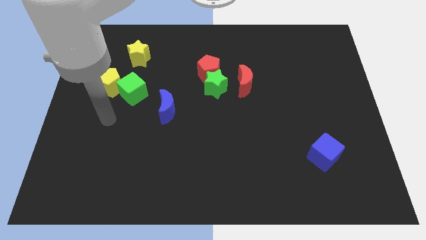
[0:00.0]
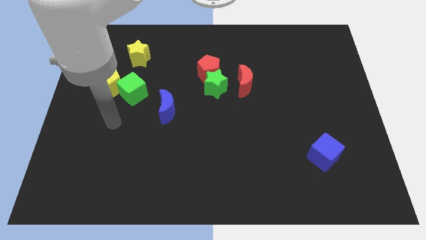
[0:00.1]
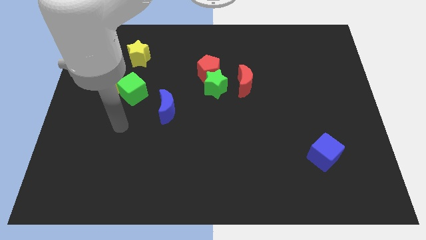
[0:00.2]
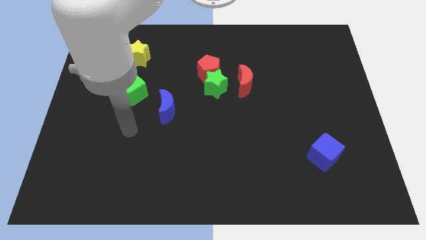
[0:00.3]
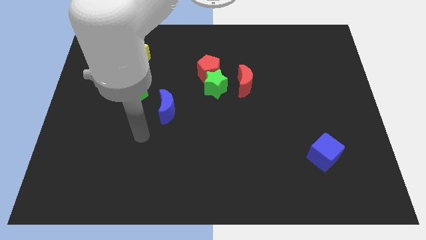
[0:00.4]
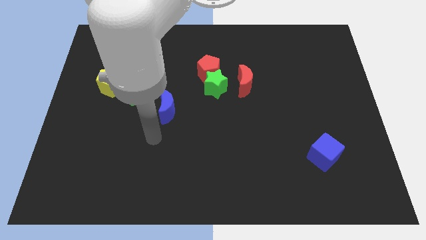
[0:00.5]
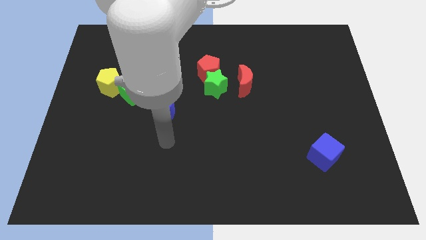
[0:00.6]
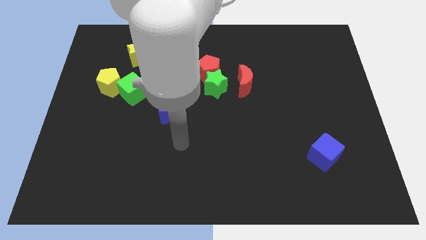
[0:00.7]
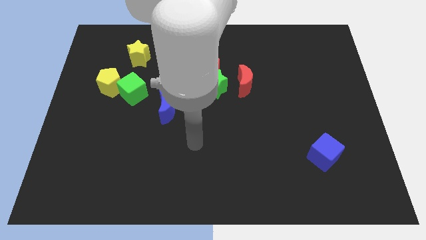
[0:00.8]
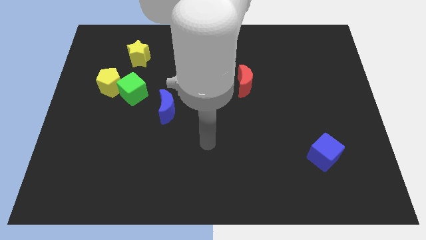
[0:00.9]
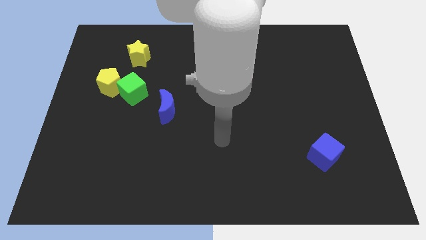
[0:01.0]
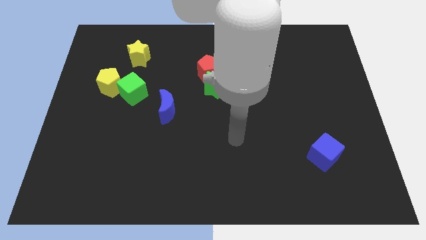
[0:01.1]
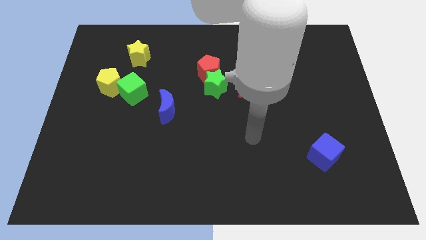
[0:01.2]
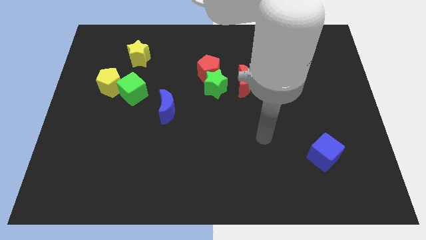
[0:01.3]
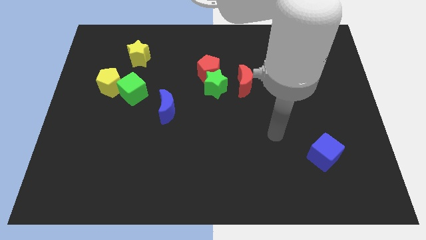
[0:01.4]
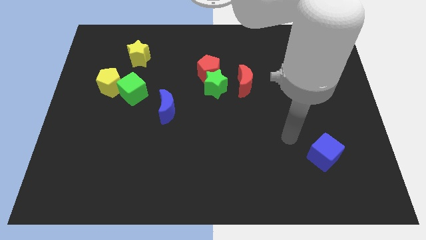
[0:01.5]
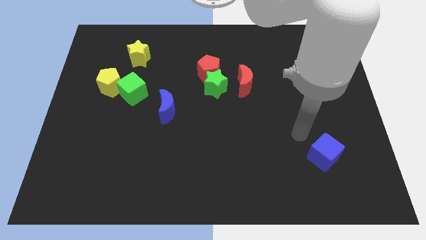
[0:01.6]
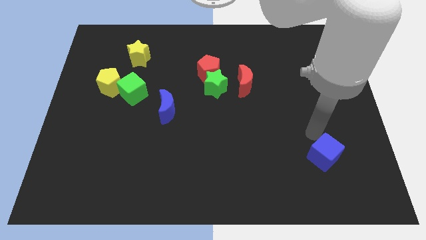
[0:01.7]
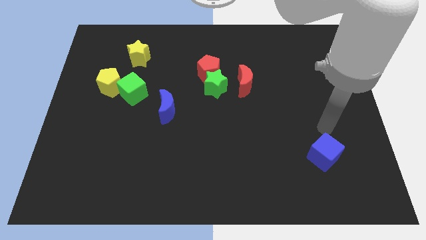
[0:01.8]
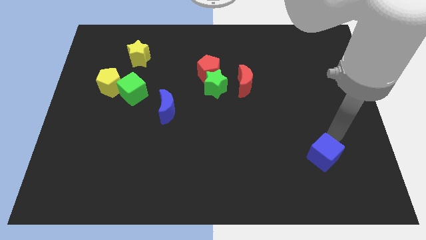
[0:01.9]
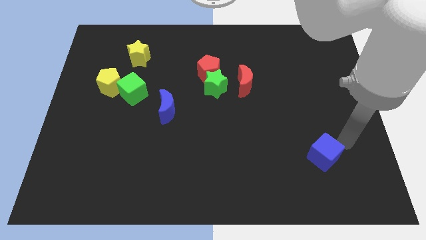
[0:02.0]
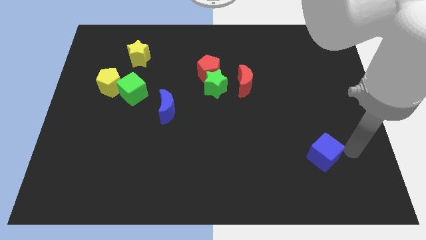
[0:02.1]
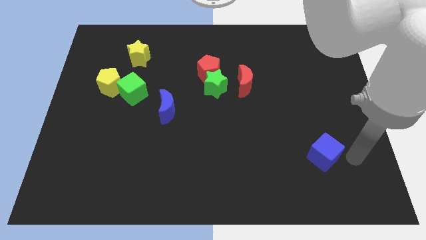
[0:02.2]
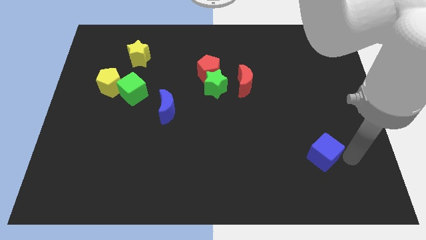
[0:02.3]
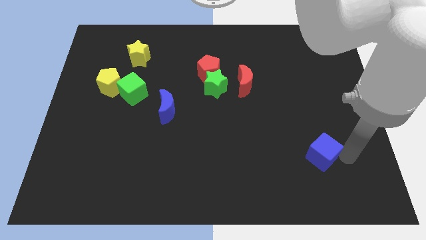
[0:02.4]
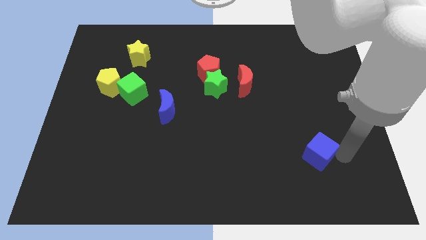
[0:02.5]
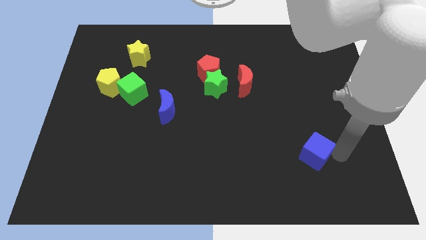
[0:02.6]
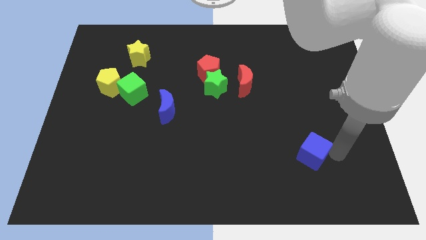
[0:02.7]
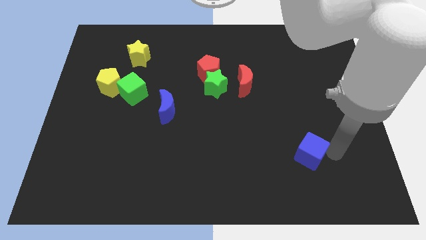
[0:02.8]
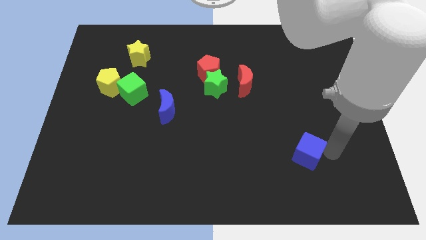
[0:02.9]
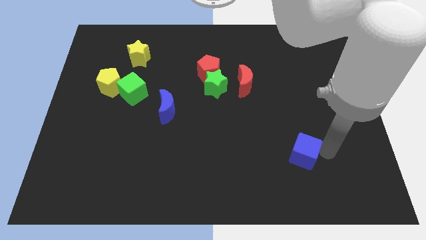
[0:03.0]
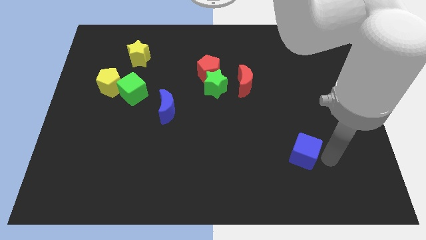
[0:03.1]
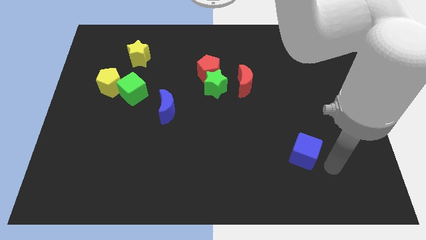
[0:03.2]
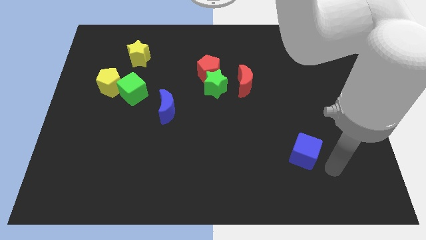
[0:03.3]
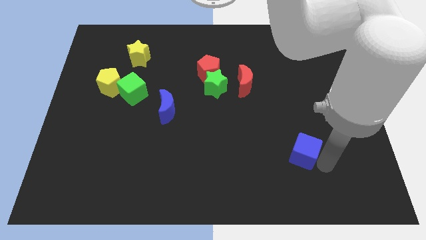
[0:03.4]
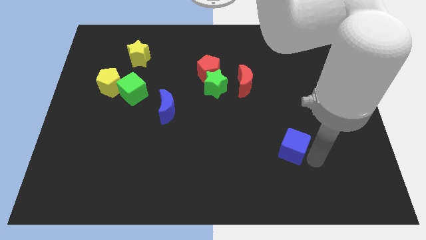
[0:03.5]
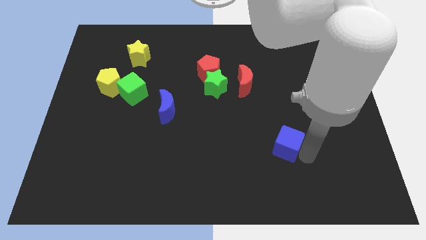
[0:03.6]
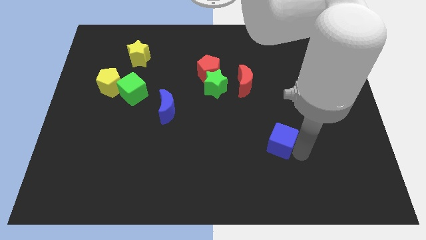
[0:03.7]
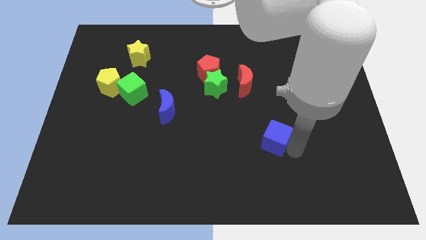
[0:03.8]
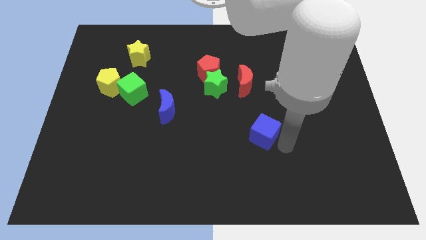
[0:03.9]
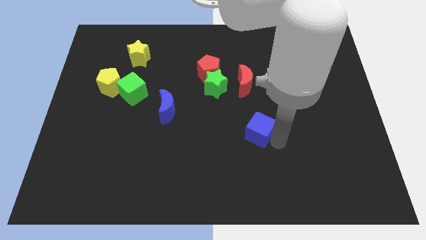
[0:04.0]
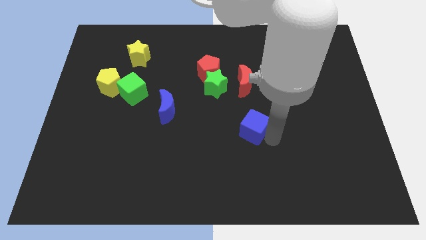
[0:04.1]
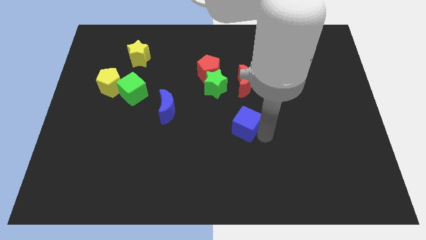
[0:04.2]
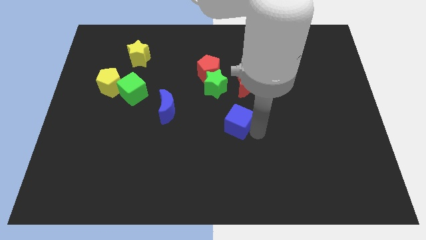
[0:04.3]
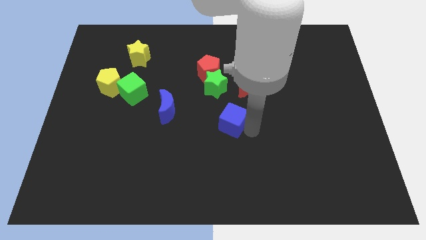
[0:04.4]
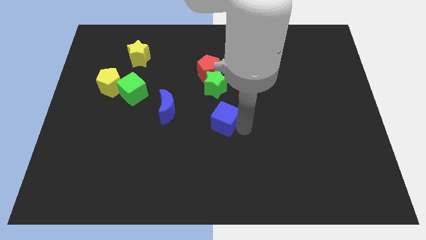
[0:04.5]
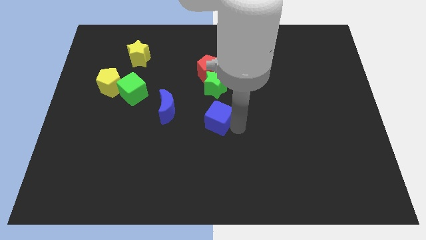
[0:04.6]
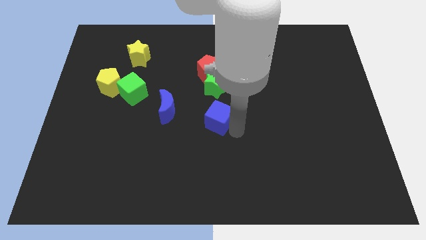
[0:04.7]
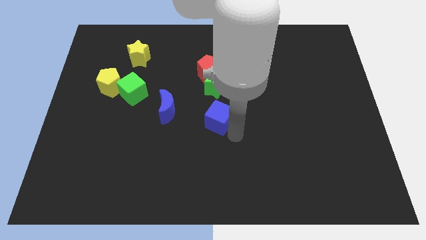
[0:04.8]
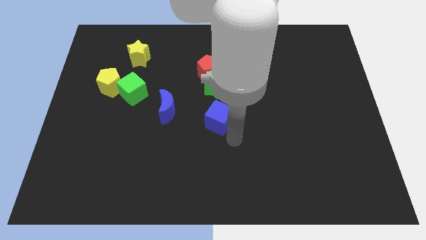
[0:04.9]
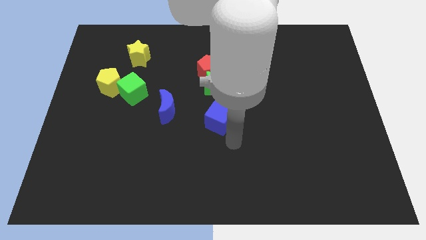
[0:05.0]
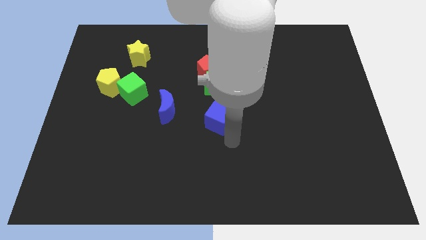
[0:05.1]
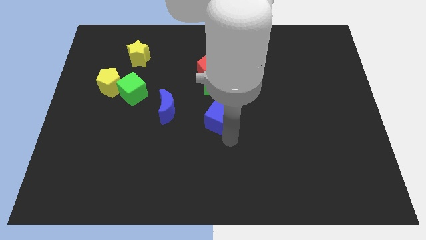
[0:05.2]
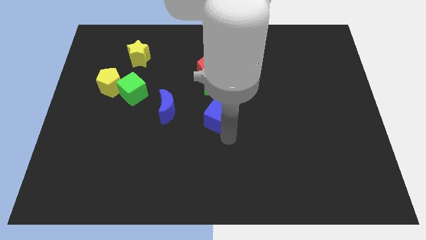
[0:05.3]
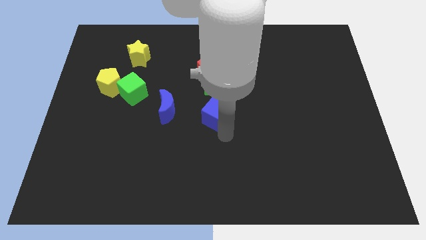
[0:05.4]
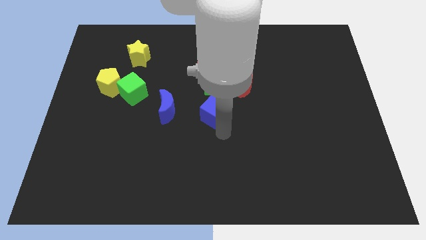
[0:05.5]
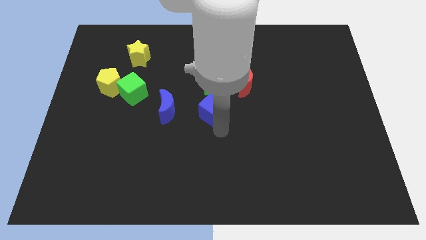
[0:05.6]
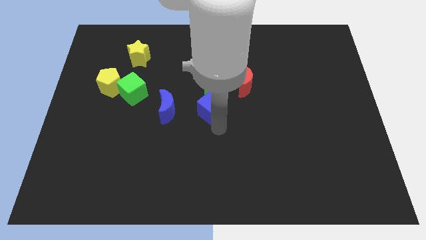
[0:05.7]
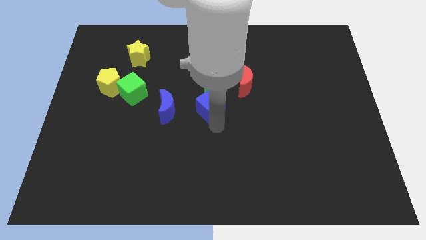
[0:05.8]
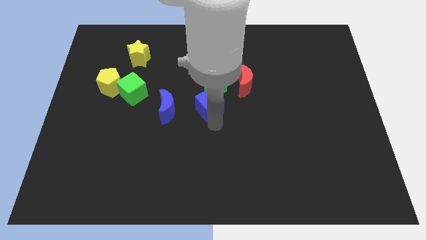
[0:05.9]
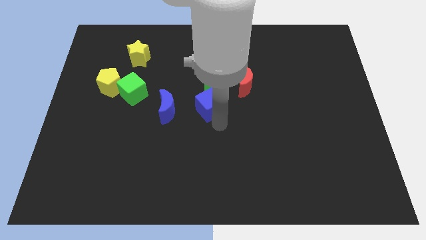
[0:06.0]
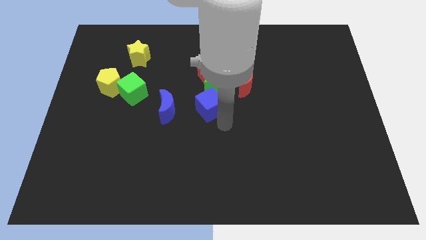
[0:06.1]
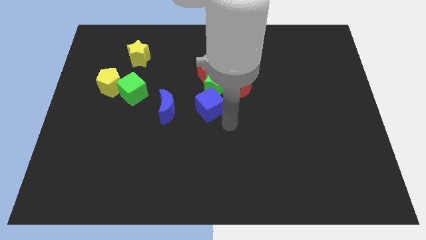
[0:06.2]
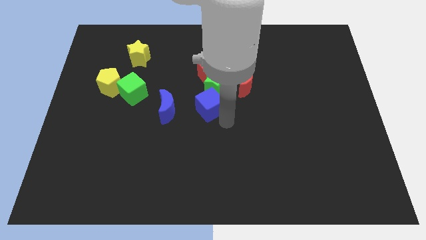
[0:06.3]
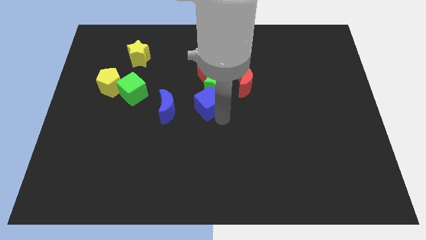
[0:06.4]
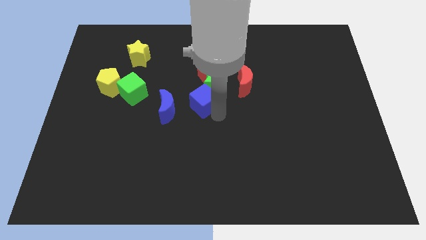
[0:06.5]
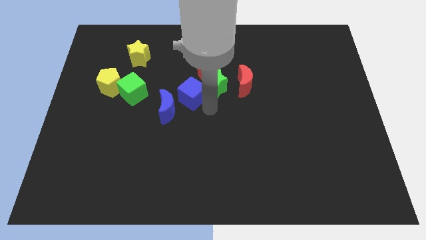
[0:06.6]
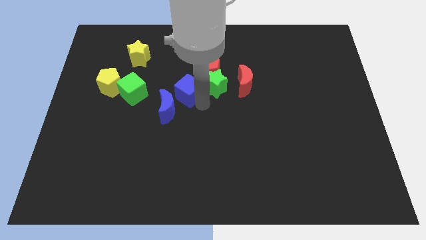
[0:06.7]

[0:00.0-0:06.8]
move the blue cube to the top of the blue moon

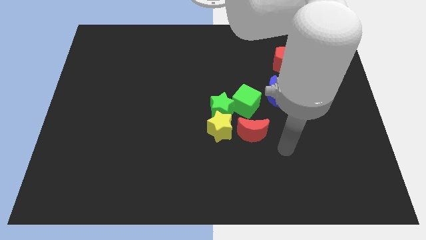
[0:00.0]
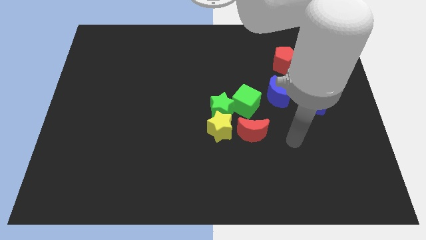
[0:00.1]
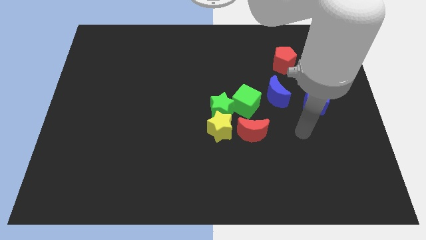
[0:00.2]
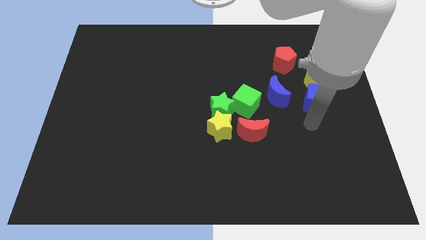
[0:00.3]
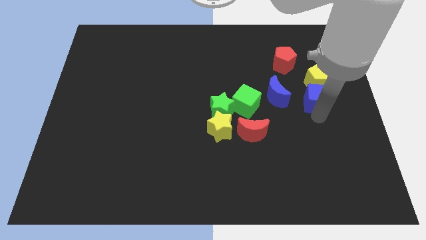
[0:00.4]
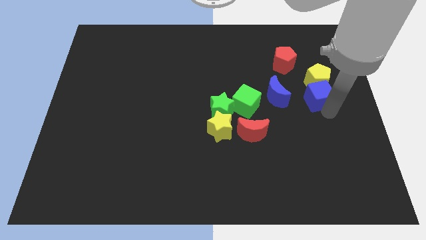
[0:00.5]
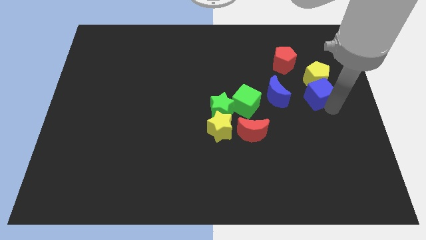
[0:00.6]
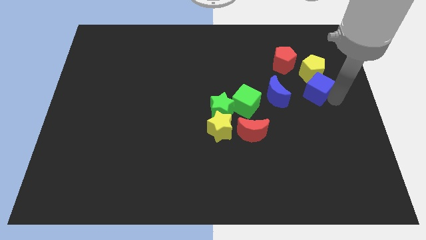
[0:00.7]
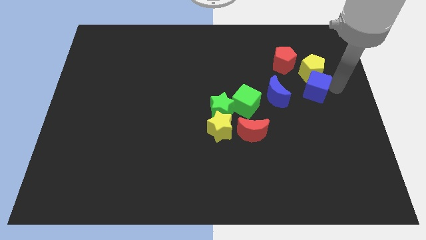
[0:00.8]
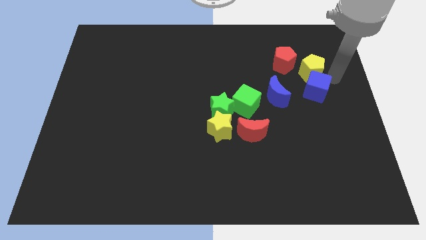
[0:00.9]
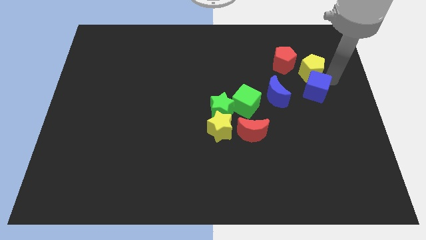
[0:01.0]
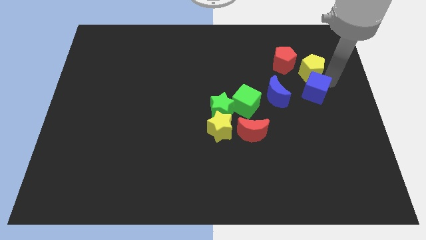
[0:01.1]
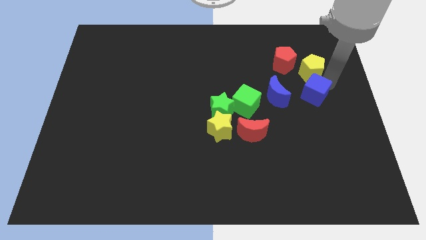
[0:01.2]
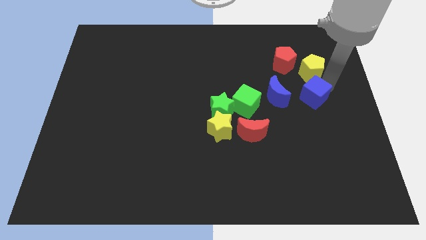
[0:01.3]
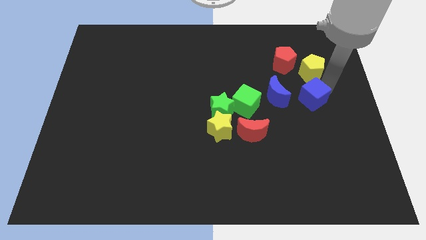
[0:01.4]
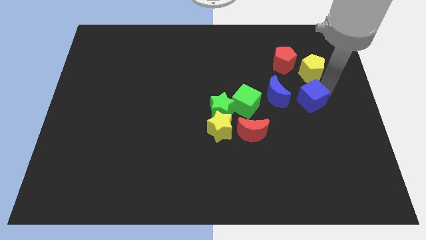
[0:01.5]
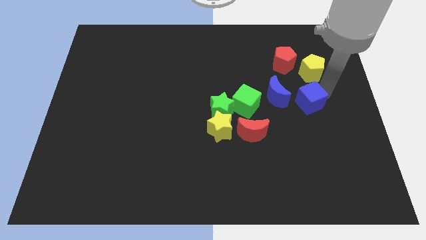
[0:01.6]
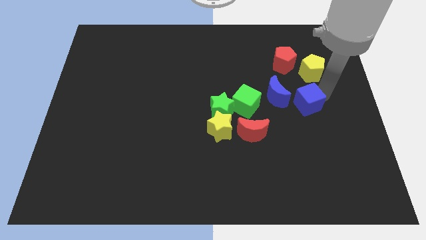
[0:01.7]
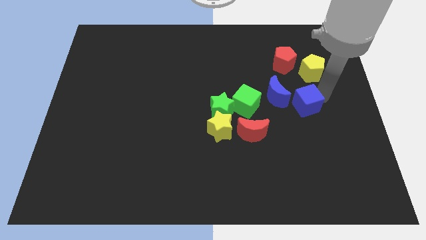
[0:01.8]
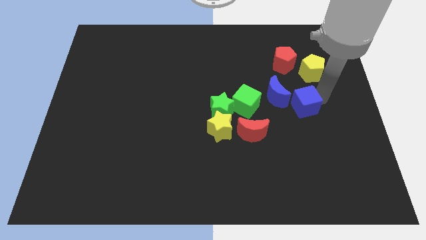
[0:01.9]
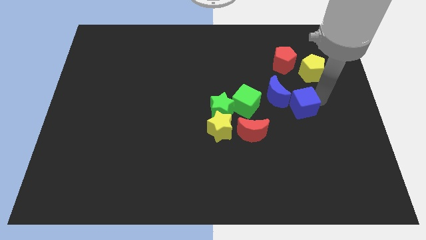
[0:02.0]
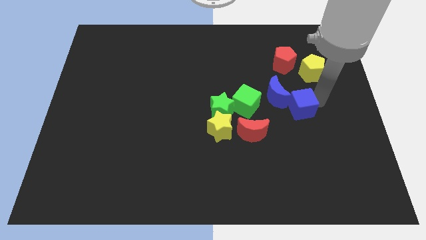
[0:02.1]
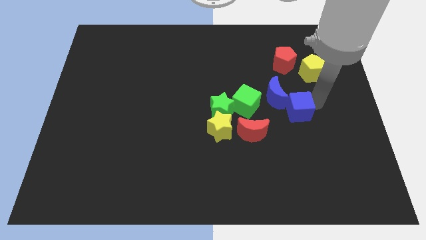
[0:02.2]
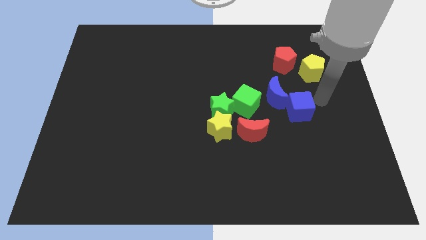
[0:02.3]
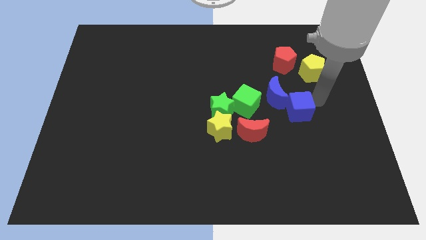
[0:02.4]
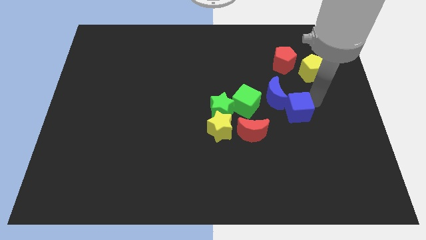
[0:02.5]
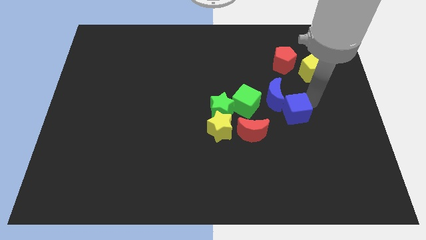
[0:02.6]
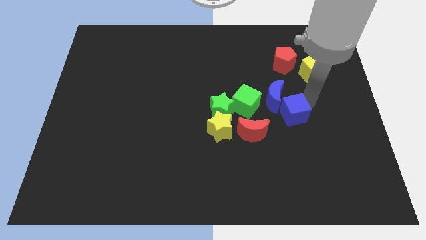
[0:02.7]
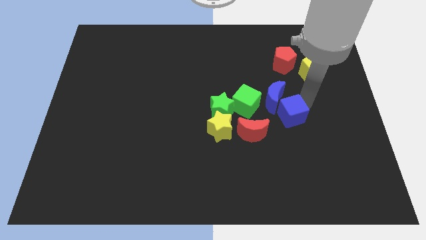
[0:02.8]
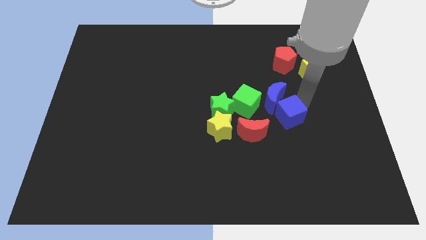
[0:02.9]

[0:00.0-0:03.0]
put the blue cube to the bottom right of the green cube
